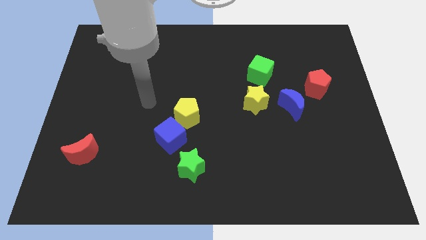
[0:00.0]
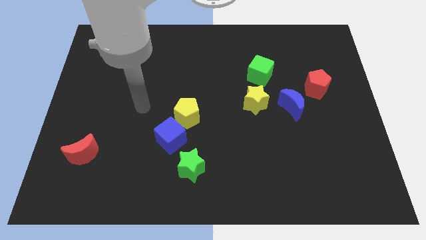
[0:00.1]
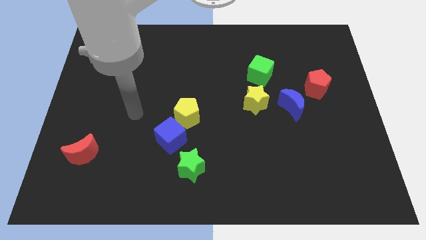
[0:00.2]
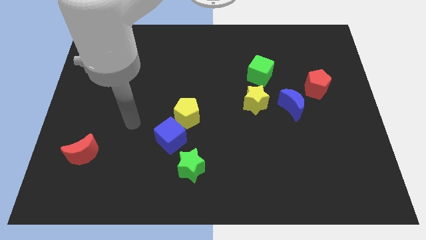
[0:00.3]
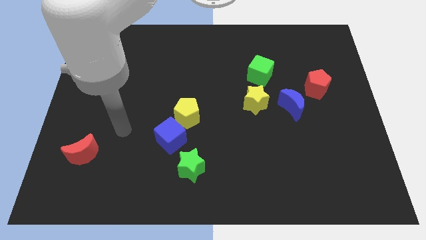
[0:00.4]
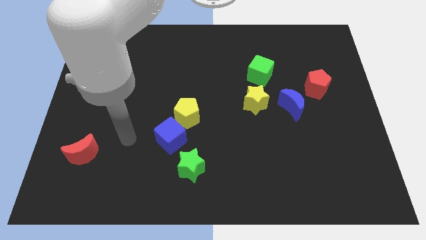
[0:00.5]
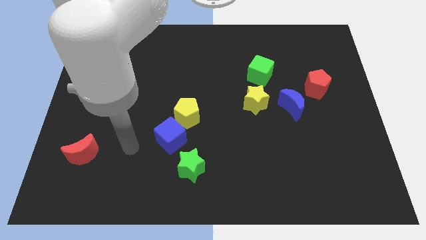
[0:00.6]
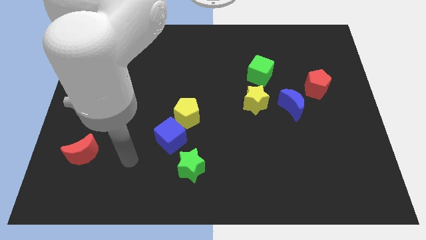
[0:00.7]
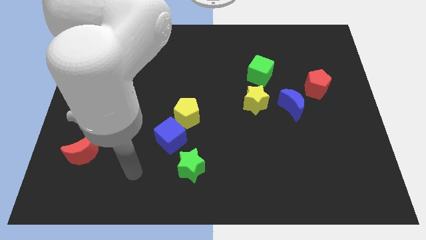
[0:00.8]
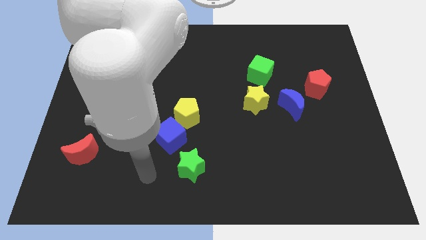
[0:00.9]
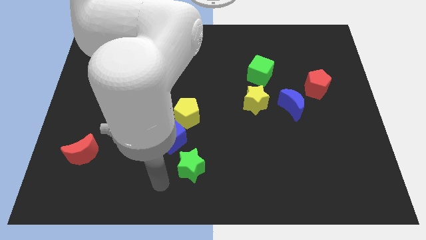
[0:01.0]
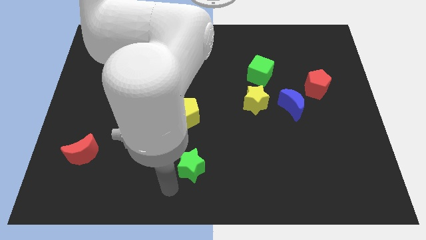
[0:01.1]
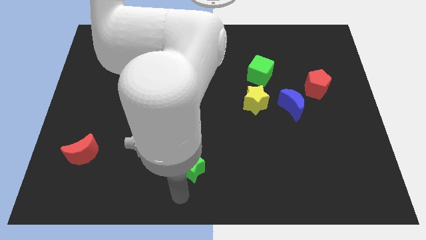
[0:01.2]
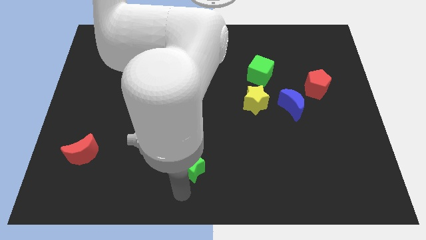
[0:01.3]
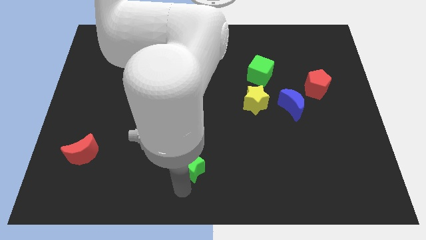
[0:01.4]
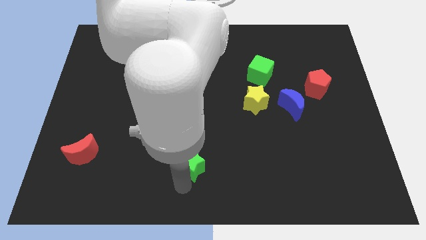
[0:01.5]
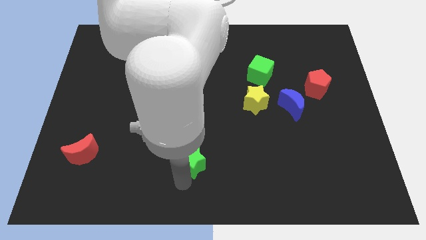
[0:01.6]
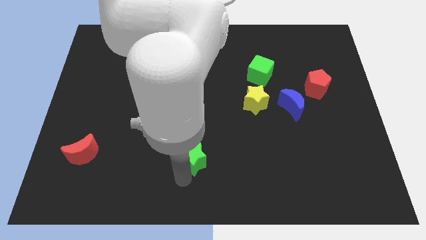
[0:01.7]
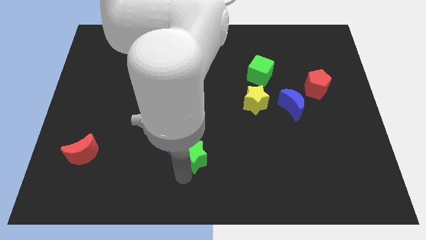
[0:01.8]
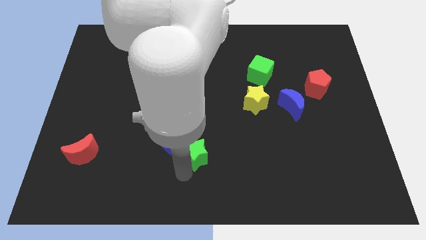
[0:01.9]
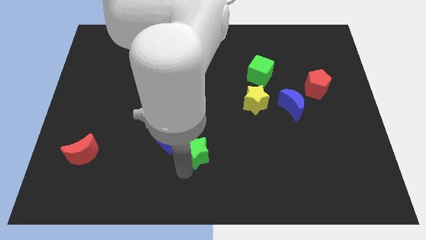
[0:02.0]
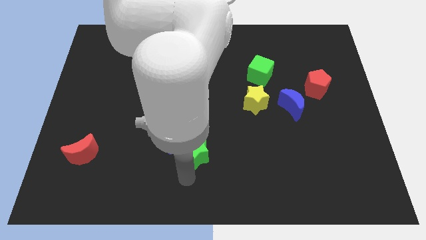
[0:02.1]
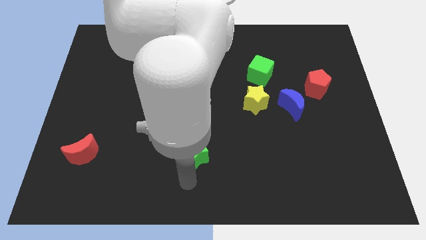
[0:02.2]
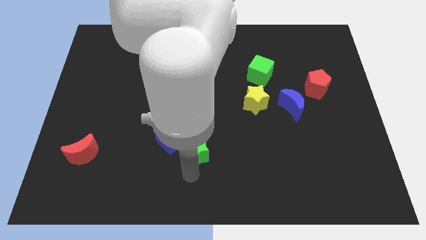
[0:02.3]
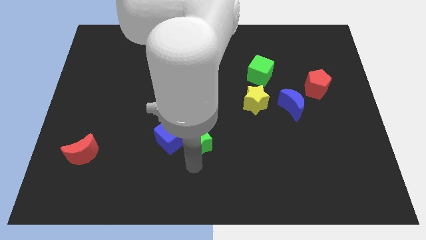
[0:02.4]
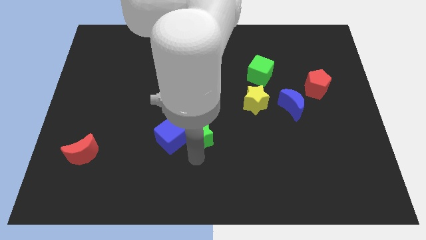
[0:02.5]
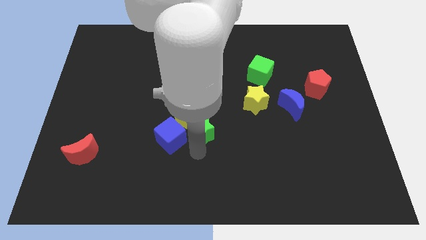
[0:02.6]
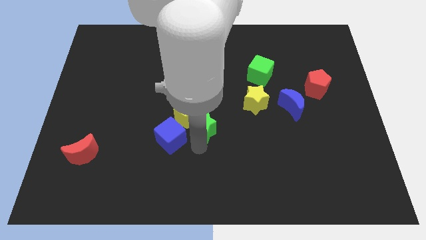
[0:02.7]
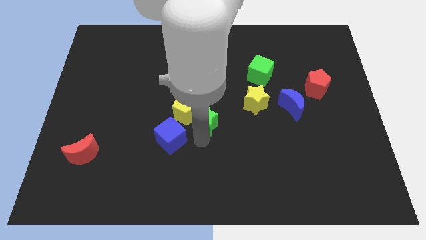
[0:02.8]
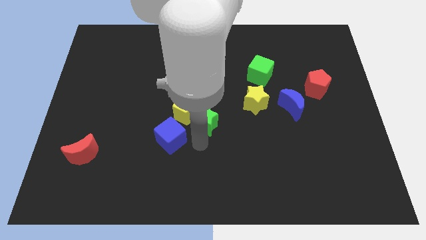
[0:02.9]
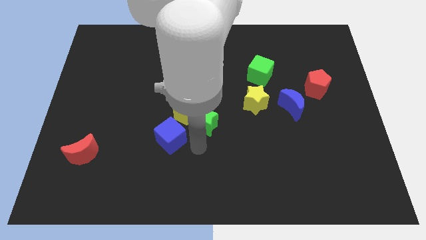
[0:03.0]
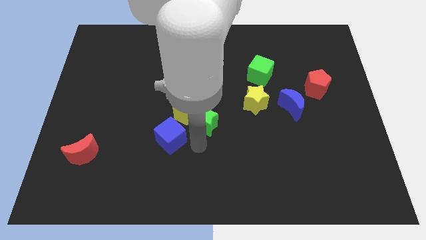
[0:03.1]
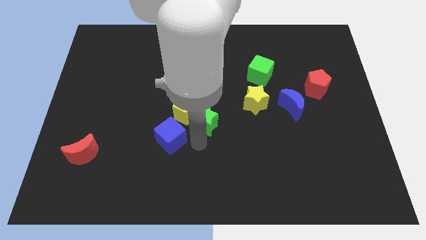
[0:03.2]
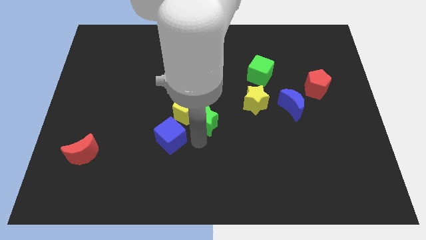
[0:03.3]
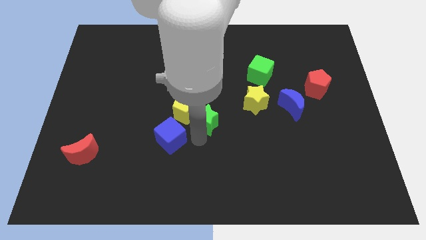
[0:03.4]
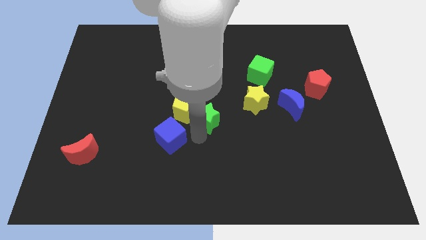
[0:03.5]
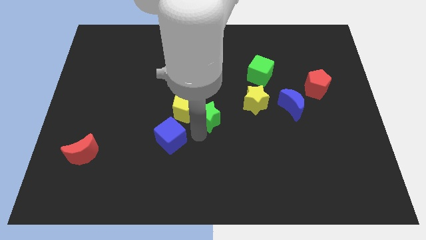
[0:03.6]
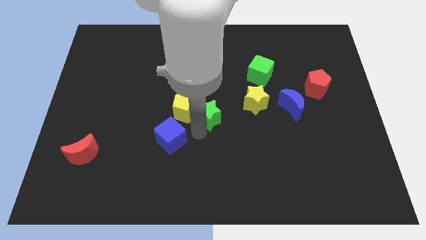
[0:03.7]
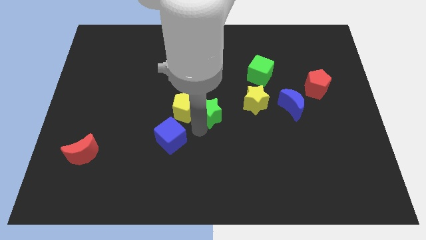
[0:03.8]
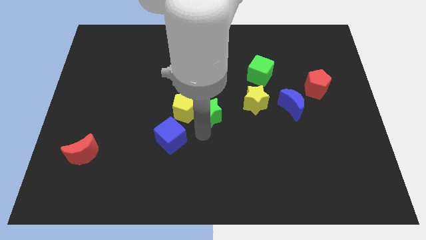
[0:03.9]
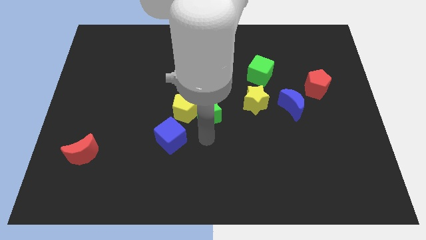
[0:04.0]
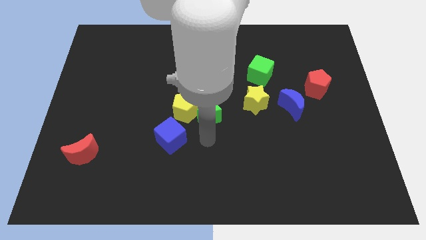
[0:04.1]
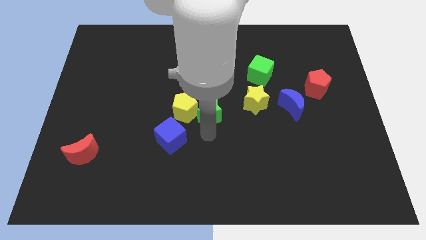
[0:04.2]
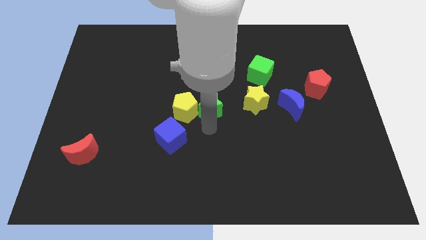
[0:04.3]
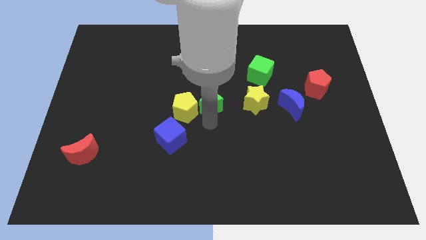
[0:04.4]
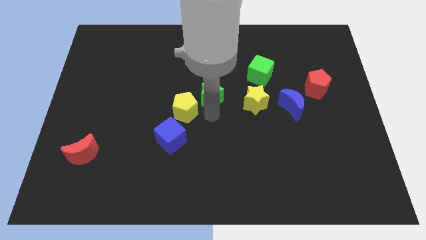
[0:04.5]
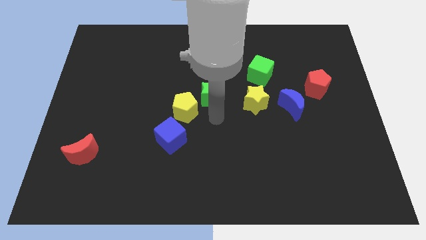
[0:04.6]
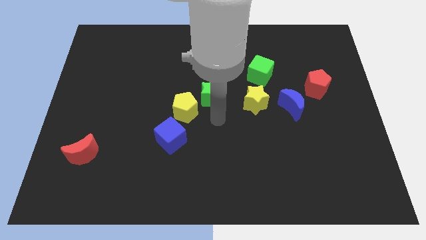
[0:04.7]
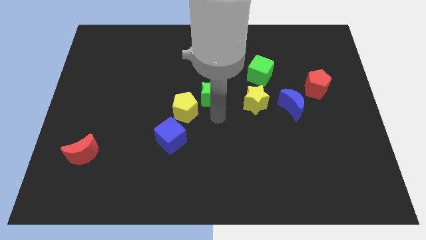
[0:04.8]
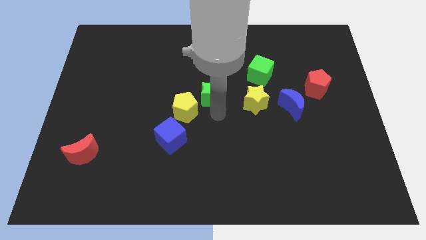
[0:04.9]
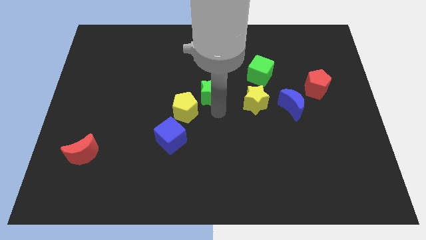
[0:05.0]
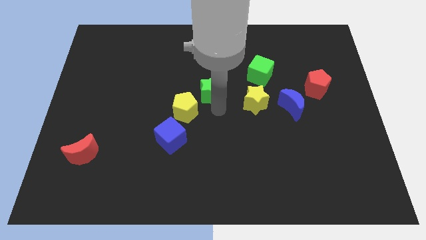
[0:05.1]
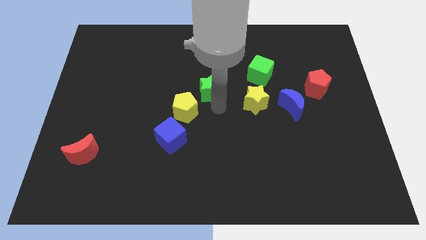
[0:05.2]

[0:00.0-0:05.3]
push the green star up

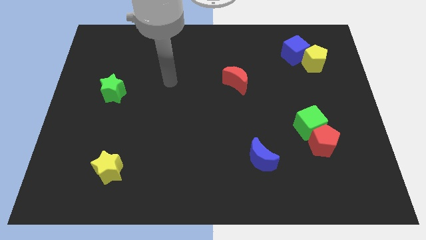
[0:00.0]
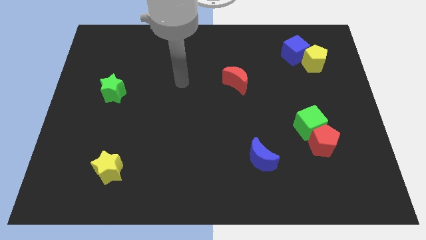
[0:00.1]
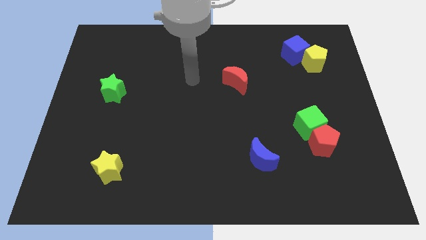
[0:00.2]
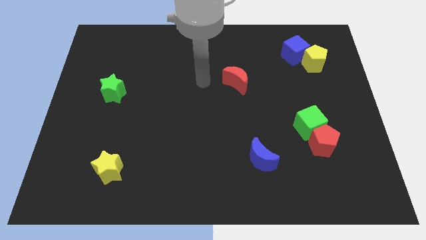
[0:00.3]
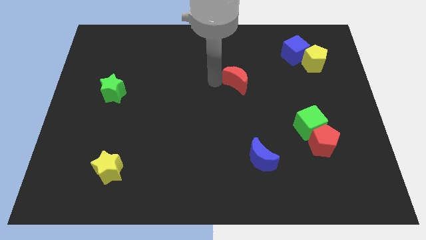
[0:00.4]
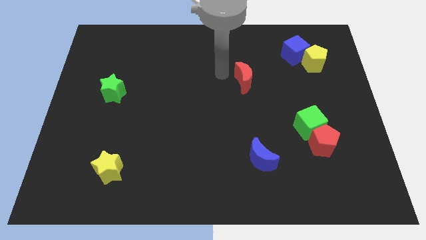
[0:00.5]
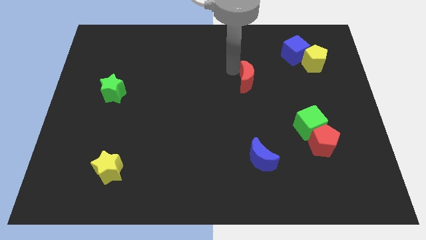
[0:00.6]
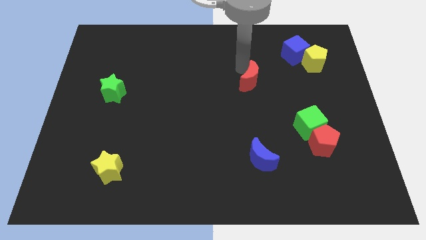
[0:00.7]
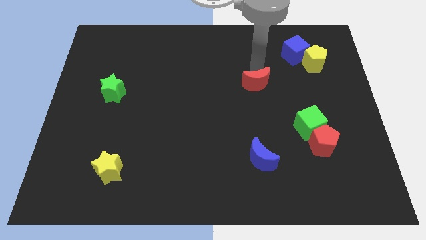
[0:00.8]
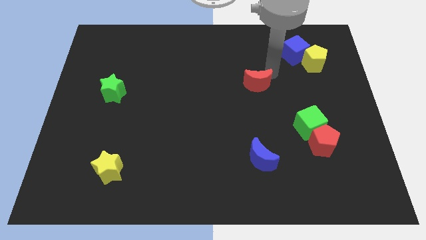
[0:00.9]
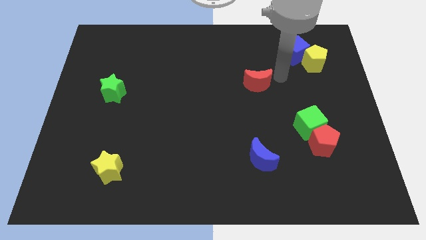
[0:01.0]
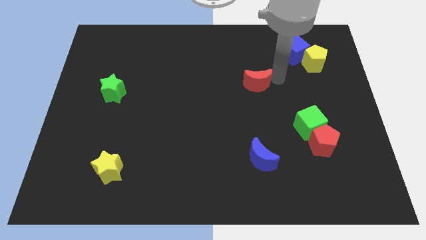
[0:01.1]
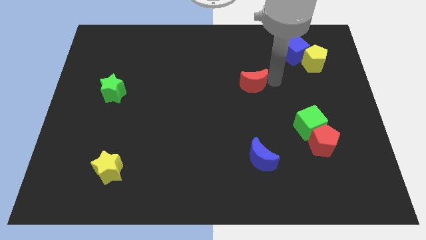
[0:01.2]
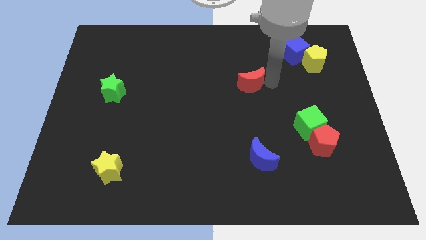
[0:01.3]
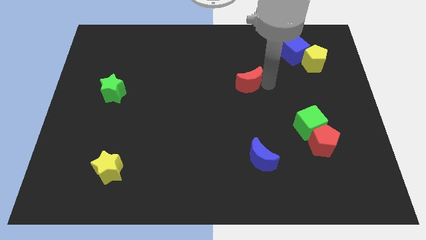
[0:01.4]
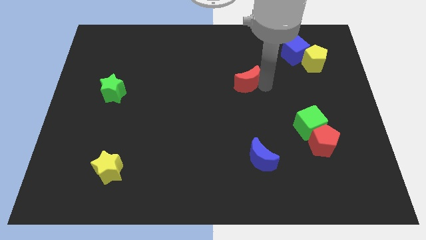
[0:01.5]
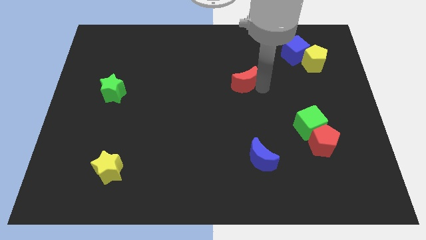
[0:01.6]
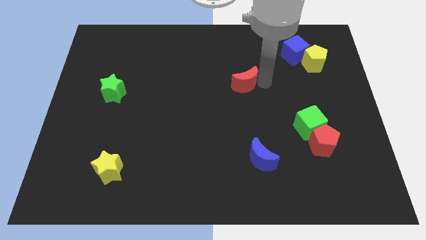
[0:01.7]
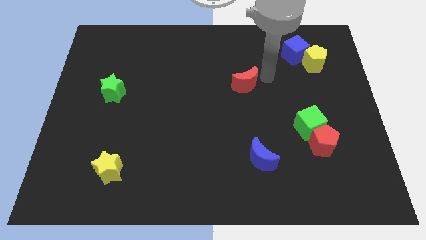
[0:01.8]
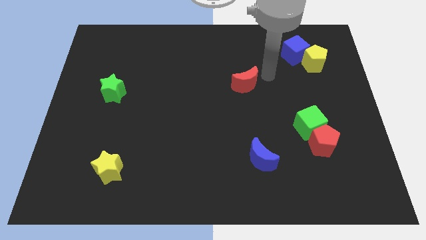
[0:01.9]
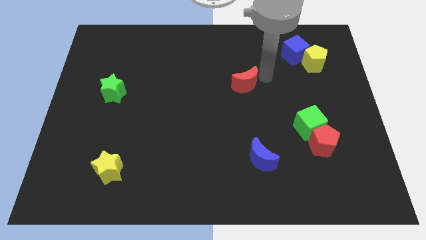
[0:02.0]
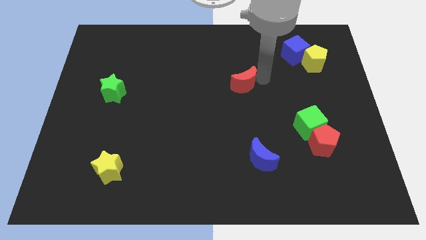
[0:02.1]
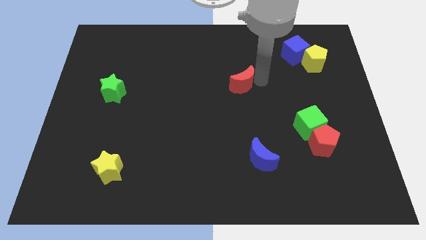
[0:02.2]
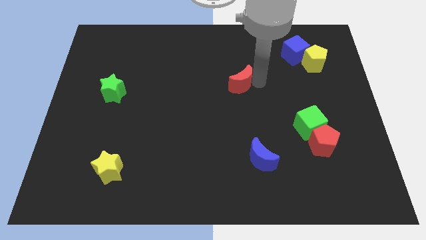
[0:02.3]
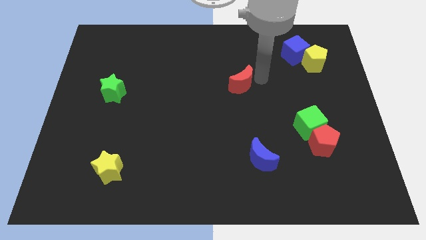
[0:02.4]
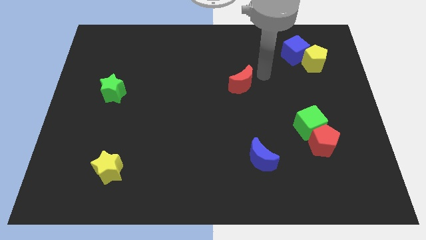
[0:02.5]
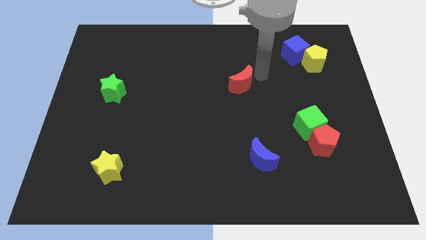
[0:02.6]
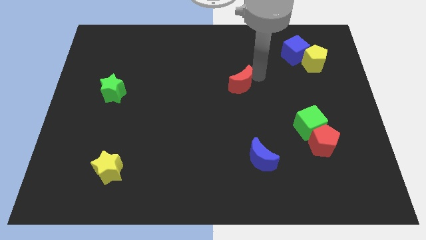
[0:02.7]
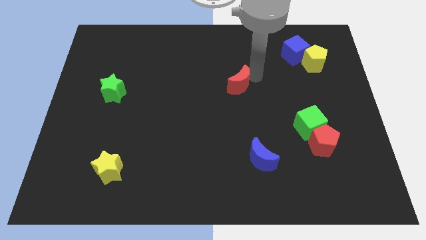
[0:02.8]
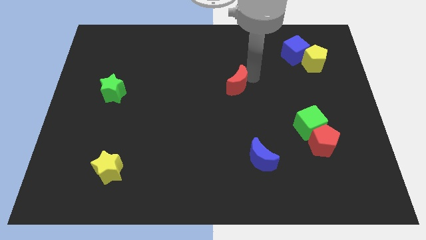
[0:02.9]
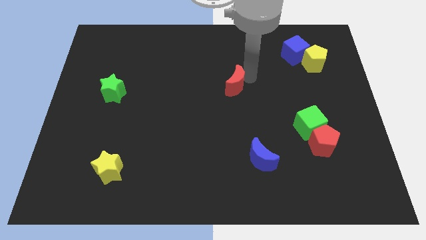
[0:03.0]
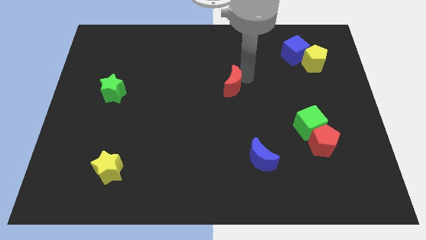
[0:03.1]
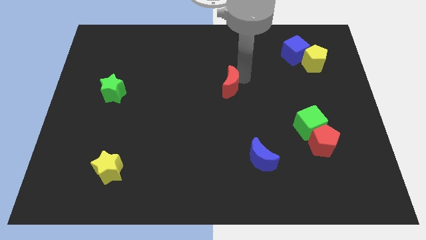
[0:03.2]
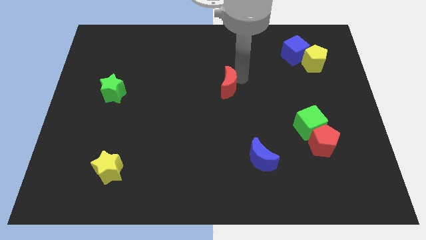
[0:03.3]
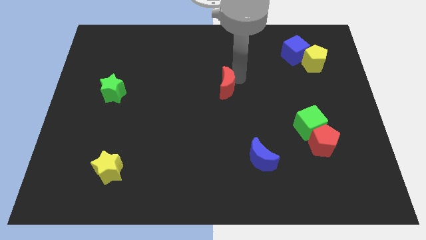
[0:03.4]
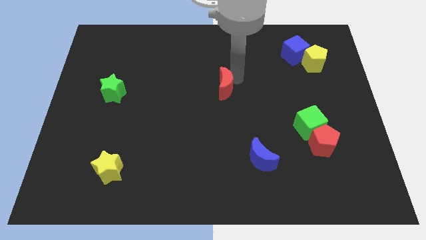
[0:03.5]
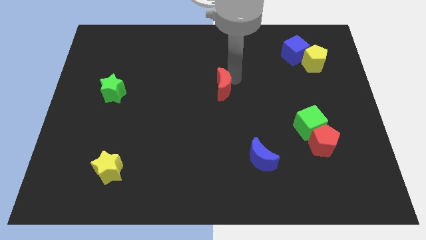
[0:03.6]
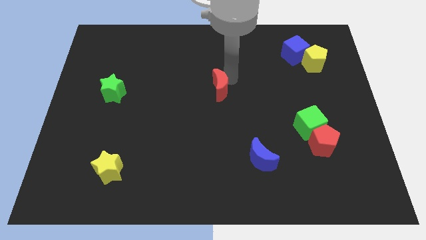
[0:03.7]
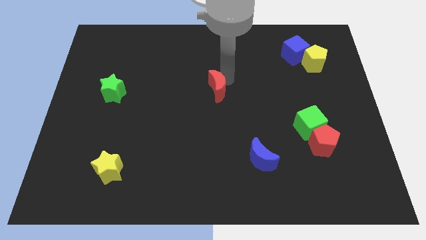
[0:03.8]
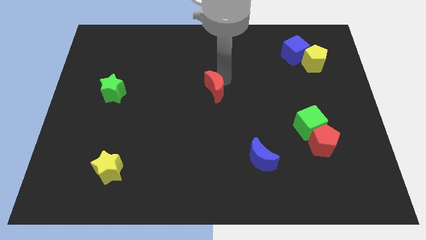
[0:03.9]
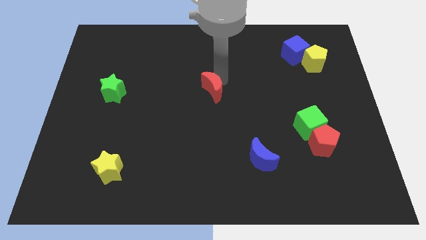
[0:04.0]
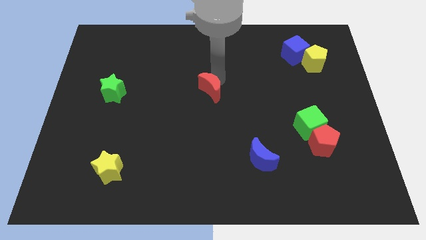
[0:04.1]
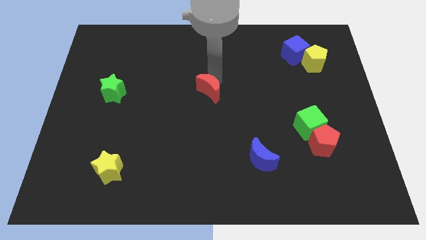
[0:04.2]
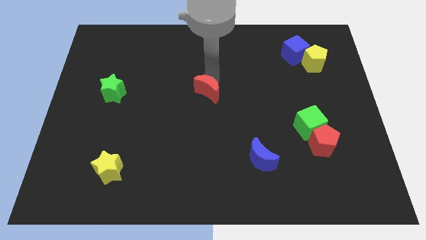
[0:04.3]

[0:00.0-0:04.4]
slightly move the red moon diagonally down and left
